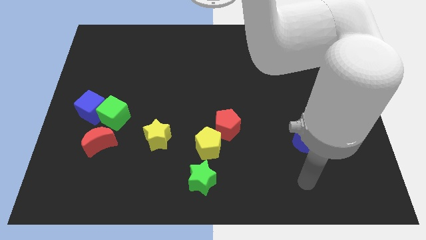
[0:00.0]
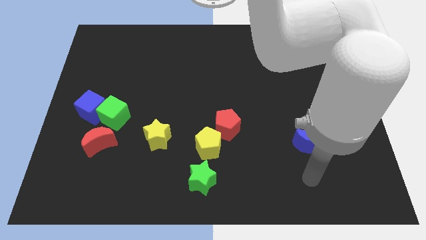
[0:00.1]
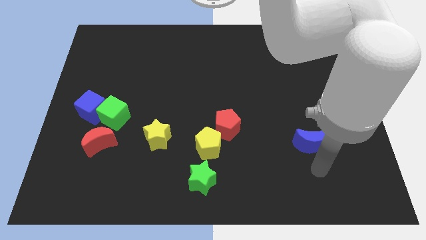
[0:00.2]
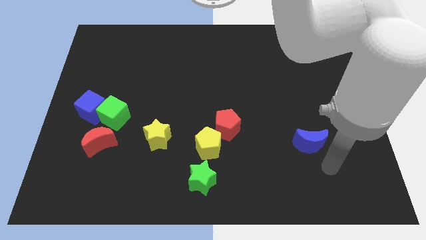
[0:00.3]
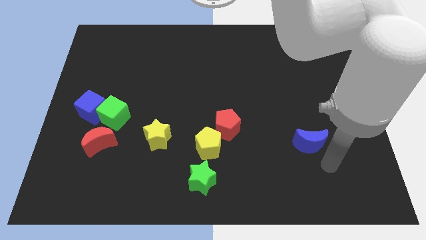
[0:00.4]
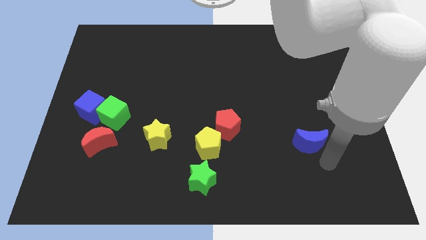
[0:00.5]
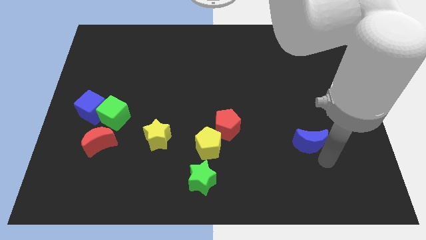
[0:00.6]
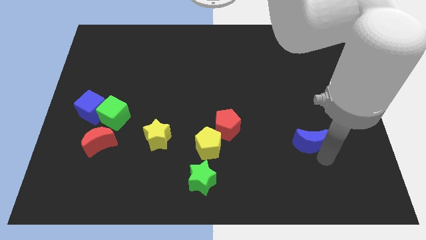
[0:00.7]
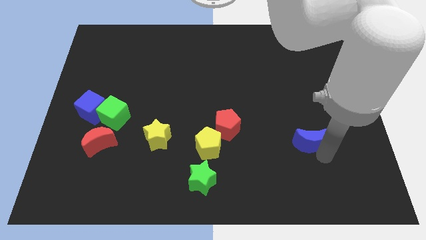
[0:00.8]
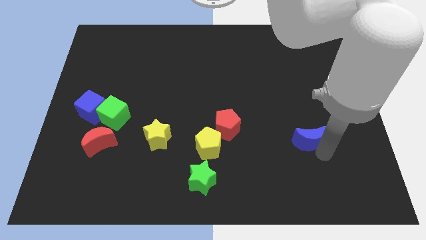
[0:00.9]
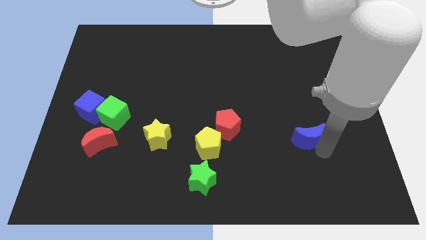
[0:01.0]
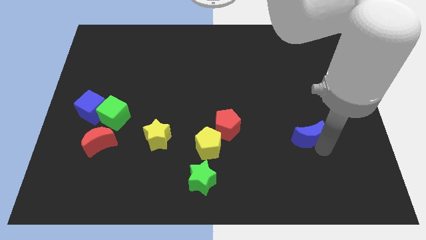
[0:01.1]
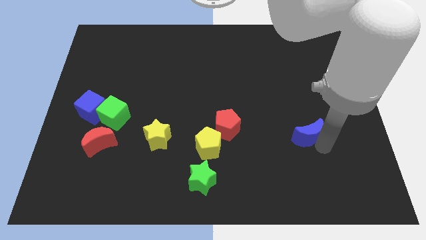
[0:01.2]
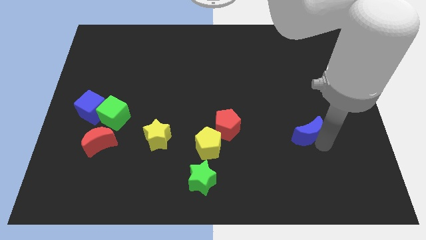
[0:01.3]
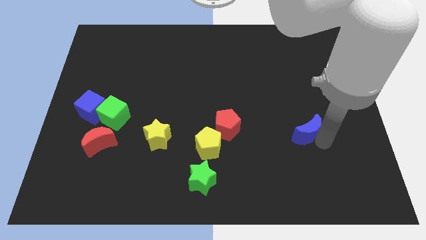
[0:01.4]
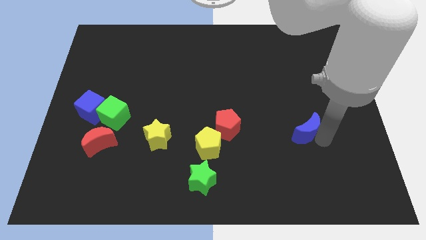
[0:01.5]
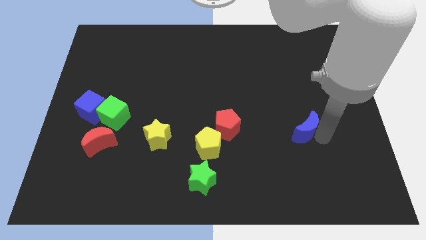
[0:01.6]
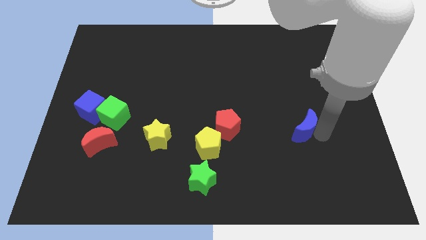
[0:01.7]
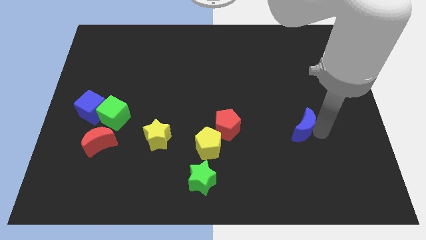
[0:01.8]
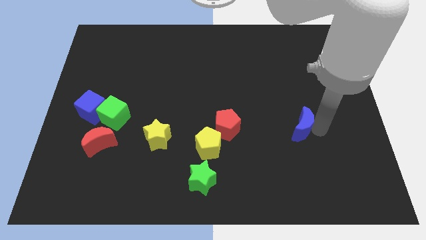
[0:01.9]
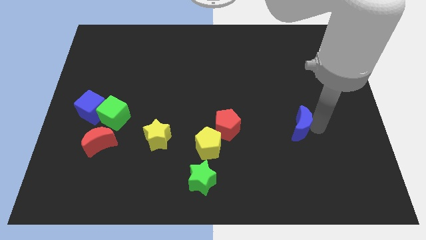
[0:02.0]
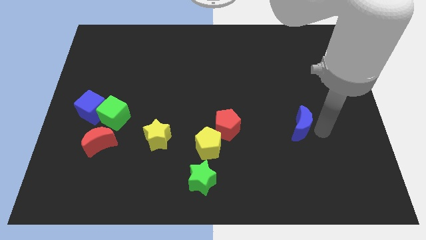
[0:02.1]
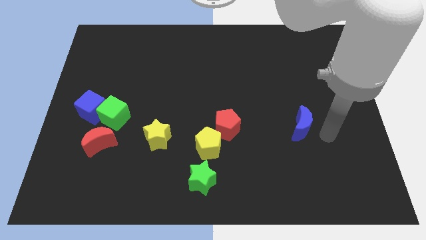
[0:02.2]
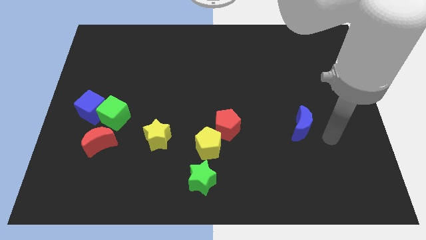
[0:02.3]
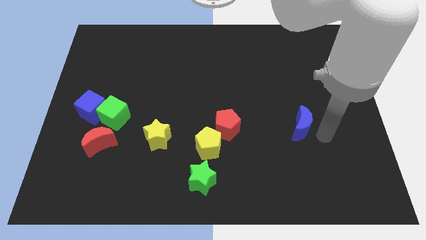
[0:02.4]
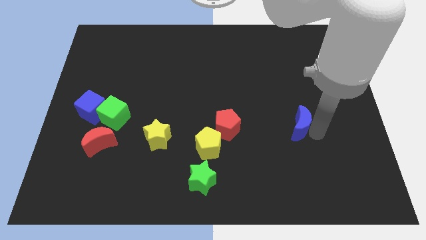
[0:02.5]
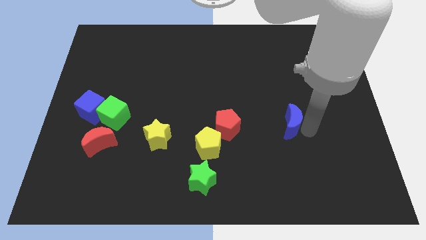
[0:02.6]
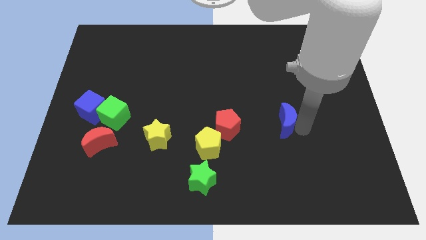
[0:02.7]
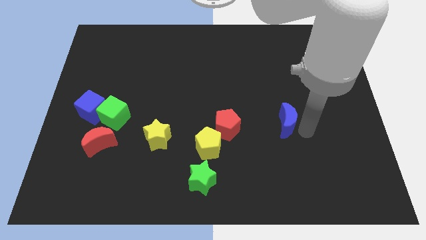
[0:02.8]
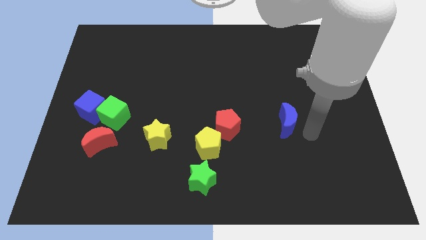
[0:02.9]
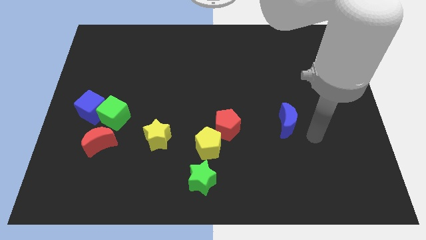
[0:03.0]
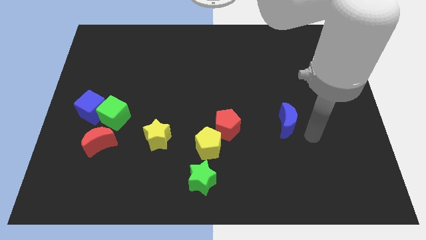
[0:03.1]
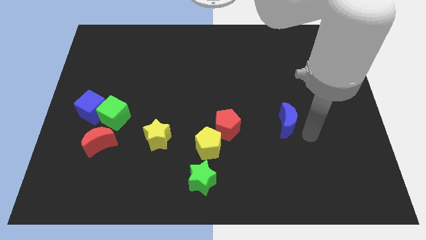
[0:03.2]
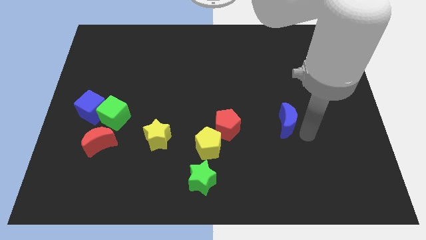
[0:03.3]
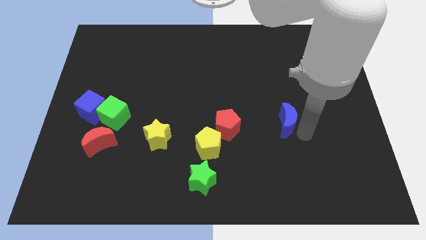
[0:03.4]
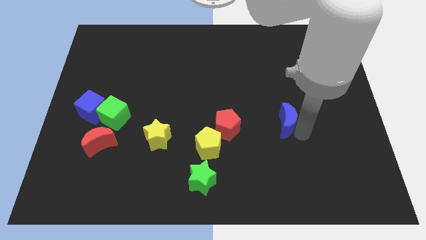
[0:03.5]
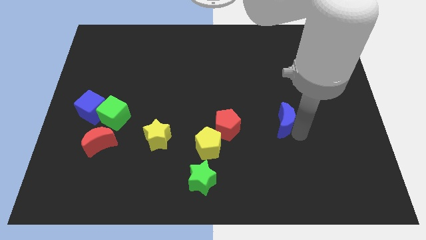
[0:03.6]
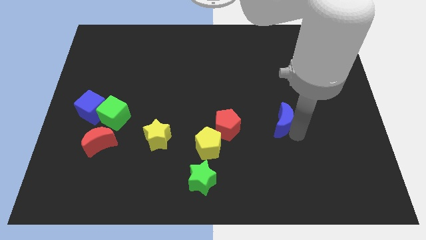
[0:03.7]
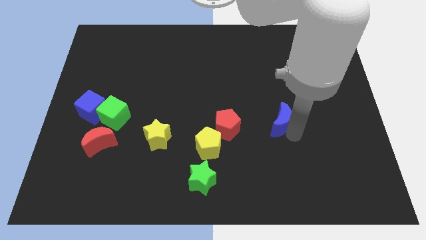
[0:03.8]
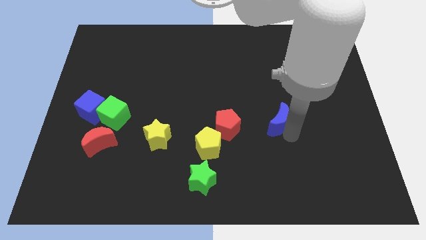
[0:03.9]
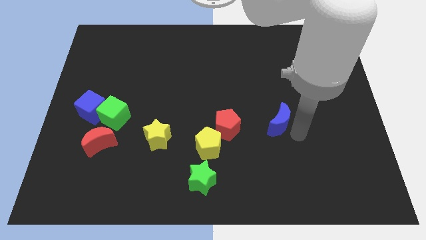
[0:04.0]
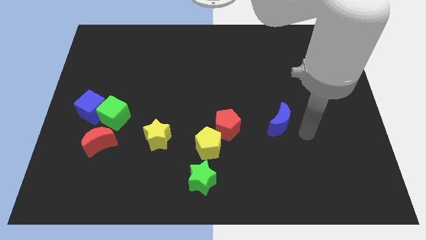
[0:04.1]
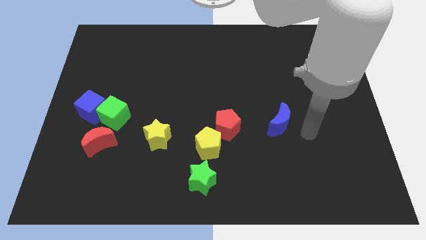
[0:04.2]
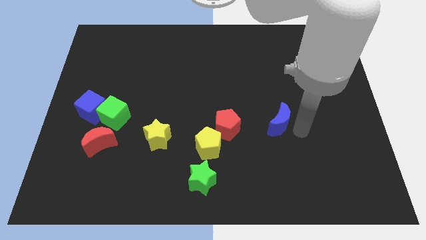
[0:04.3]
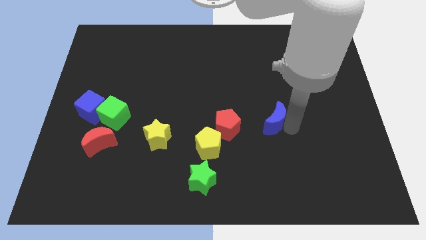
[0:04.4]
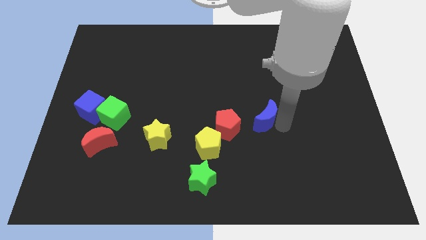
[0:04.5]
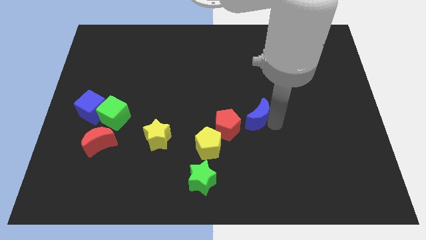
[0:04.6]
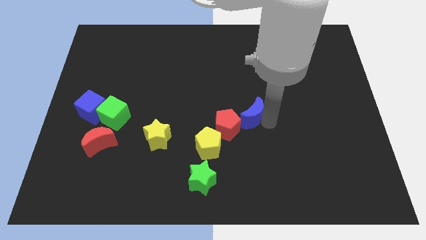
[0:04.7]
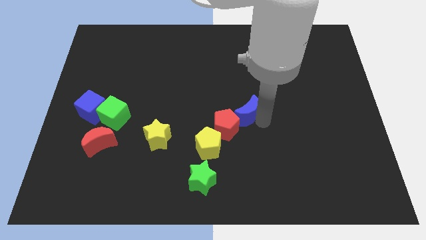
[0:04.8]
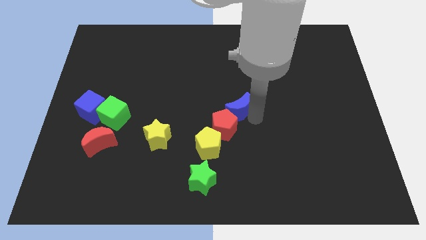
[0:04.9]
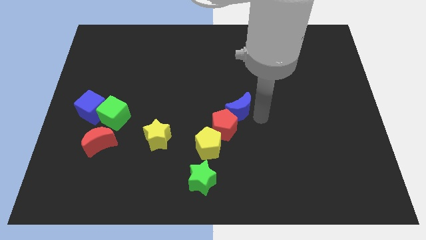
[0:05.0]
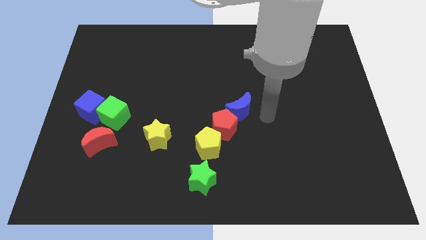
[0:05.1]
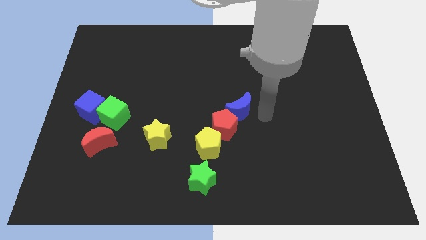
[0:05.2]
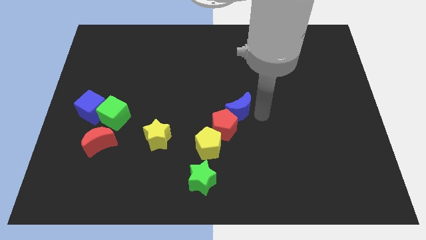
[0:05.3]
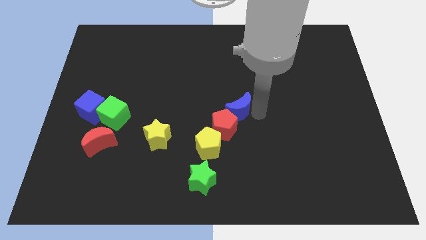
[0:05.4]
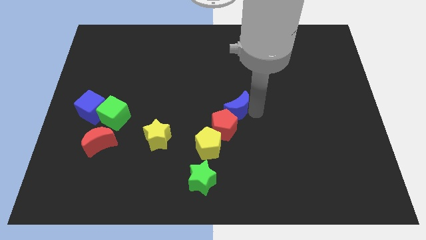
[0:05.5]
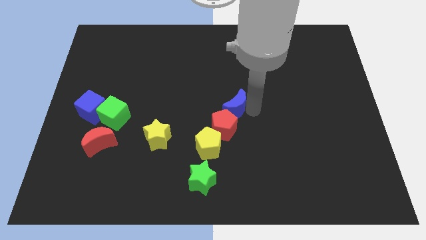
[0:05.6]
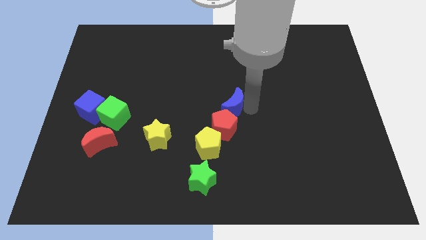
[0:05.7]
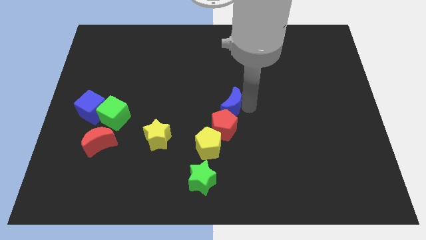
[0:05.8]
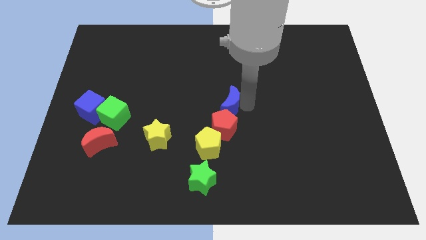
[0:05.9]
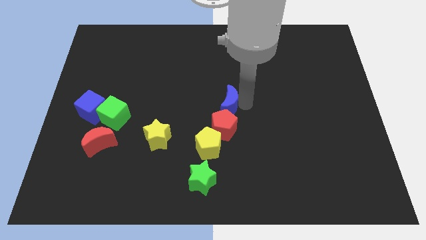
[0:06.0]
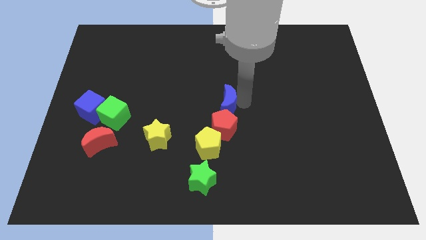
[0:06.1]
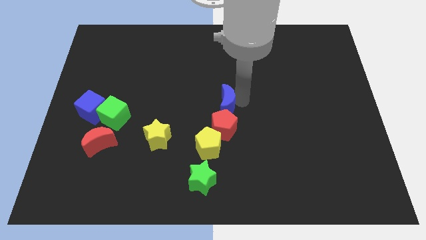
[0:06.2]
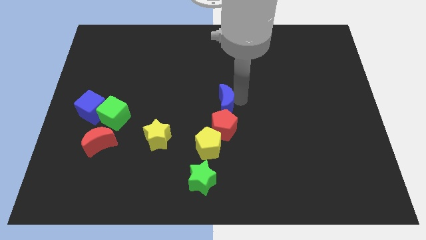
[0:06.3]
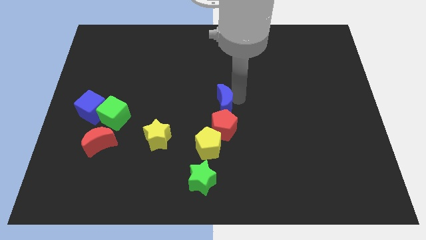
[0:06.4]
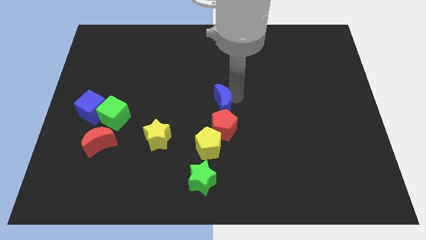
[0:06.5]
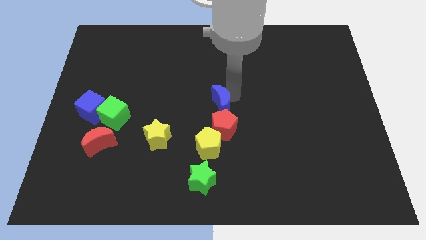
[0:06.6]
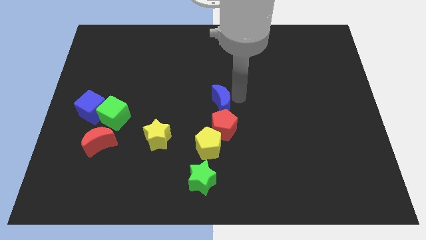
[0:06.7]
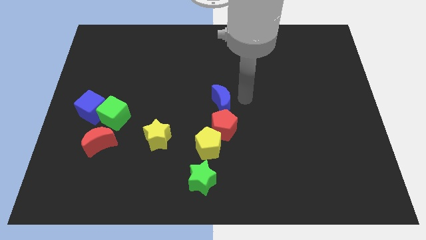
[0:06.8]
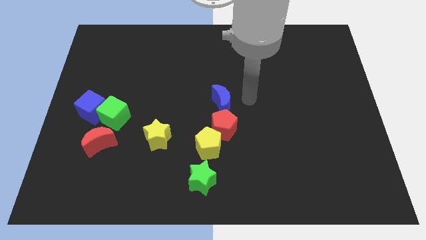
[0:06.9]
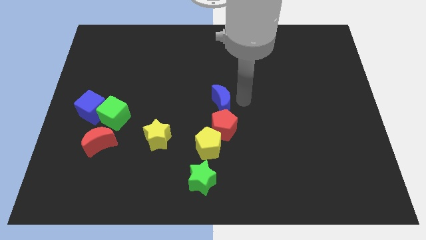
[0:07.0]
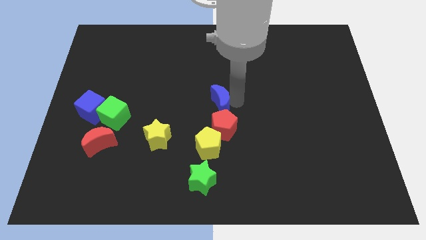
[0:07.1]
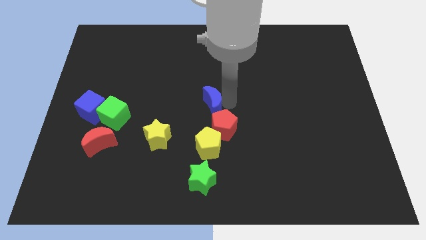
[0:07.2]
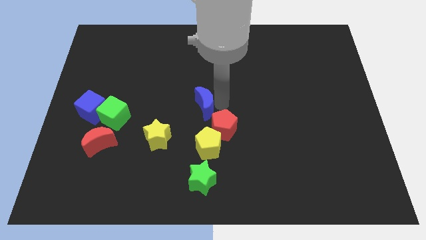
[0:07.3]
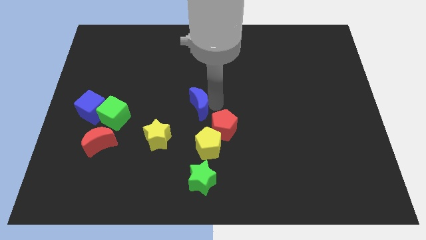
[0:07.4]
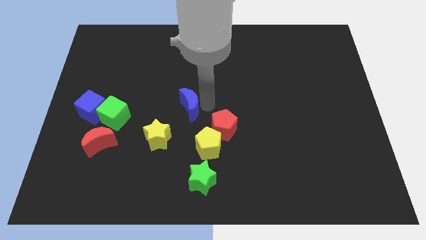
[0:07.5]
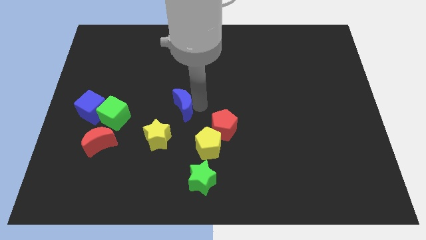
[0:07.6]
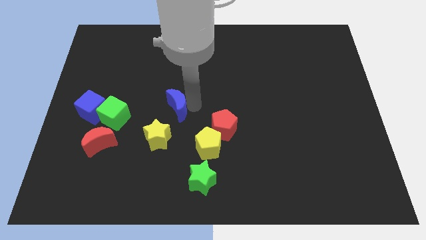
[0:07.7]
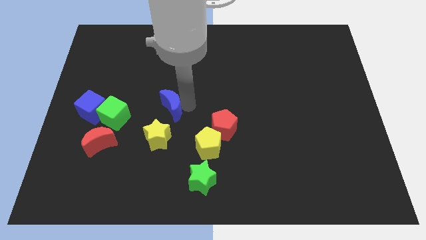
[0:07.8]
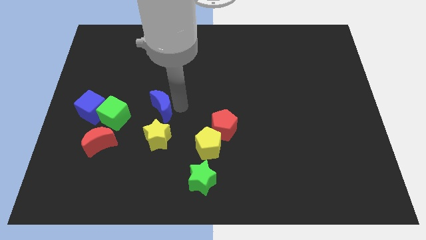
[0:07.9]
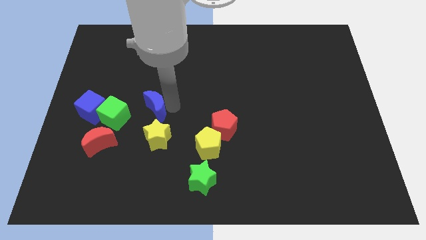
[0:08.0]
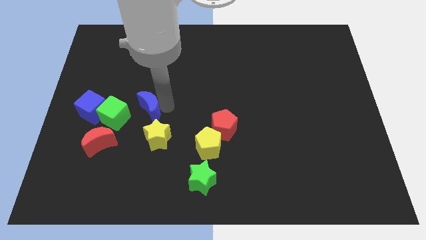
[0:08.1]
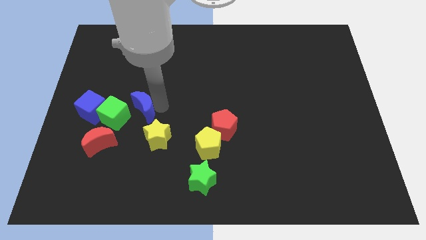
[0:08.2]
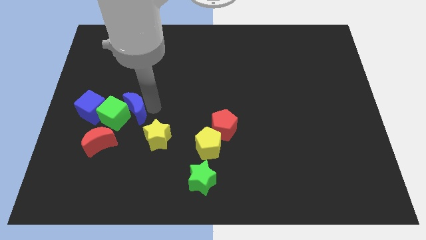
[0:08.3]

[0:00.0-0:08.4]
slide the blue moon next to the green cube
